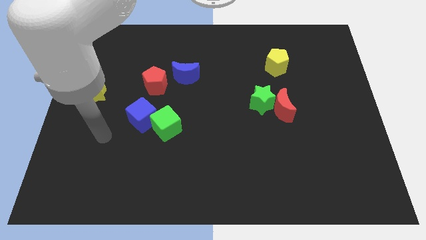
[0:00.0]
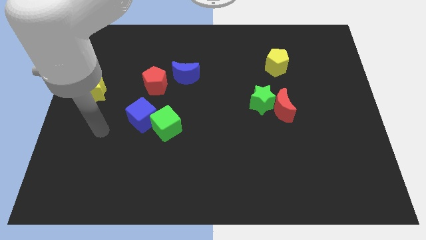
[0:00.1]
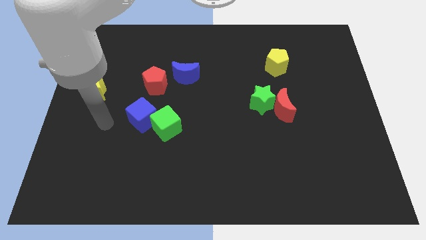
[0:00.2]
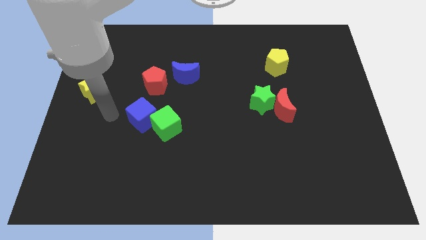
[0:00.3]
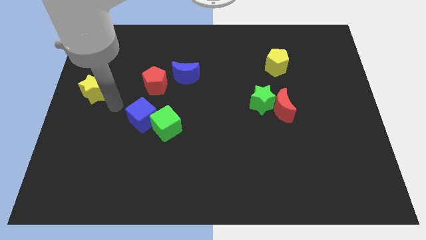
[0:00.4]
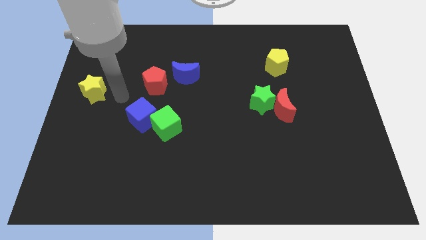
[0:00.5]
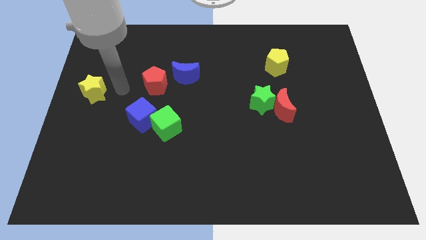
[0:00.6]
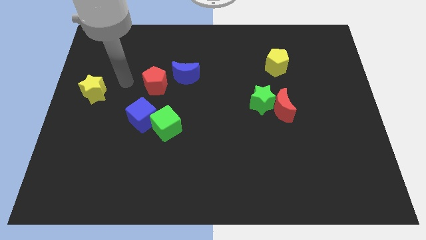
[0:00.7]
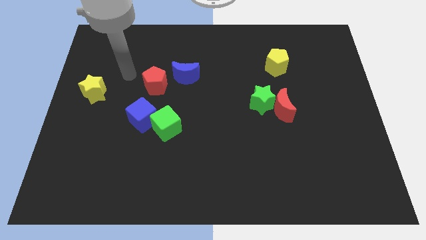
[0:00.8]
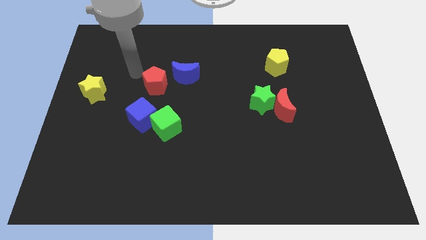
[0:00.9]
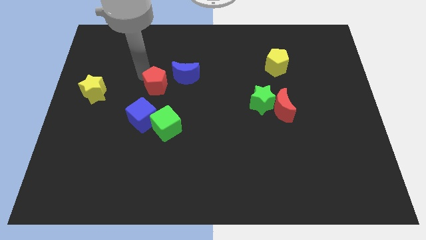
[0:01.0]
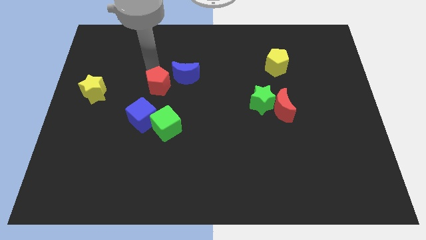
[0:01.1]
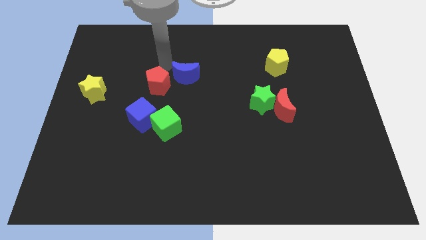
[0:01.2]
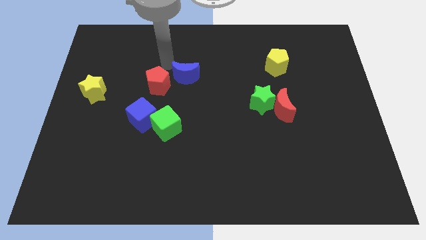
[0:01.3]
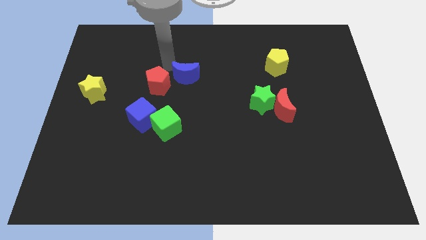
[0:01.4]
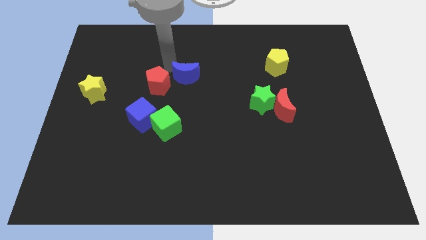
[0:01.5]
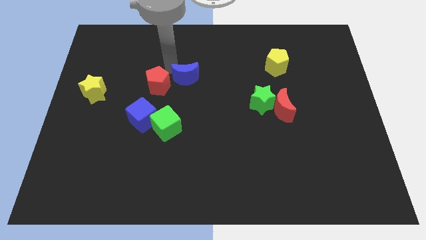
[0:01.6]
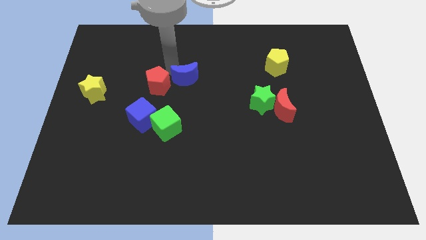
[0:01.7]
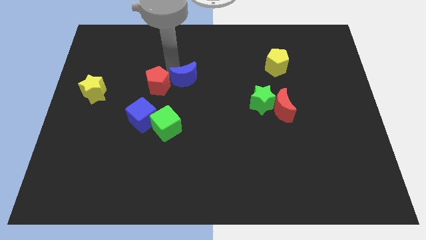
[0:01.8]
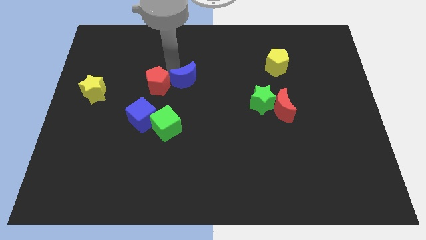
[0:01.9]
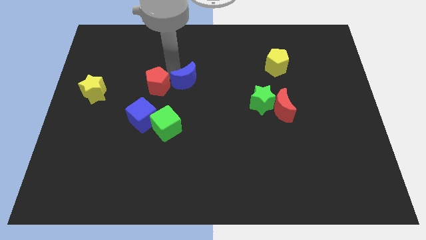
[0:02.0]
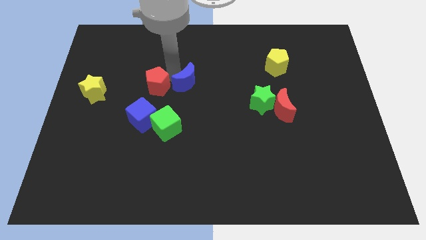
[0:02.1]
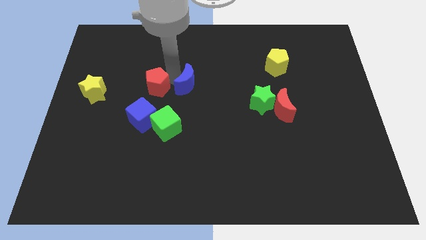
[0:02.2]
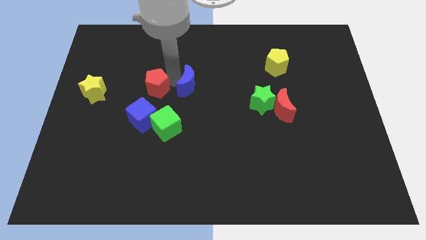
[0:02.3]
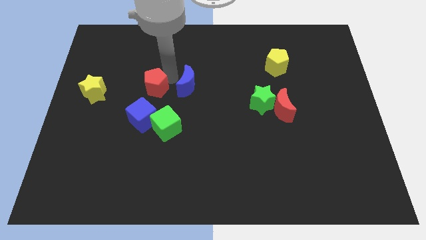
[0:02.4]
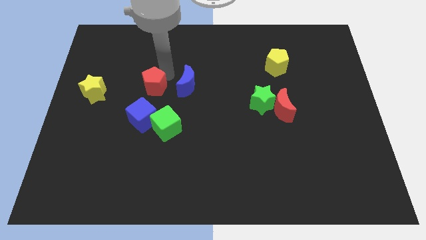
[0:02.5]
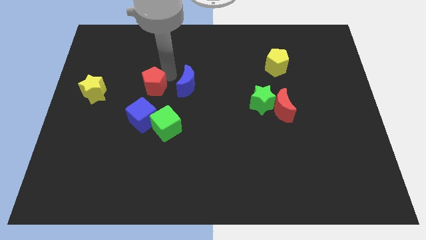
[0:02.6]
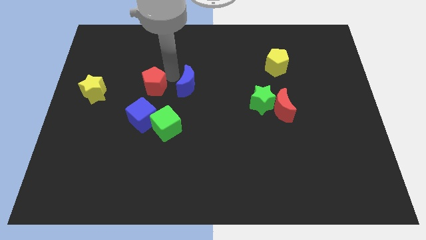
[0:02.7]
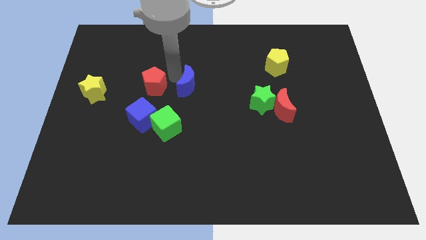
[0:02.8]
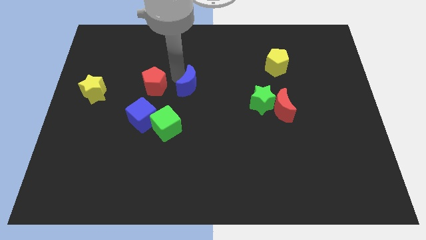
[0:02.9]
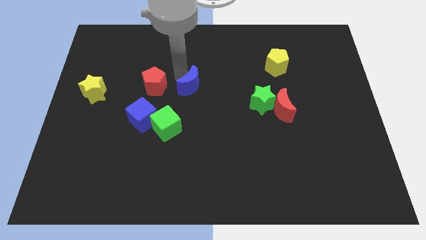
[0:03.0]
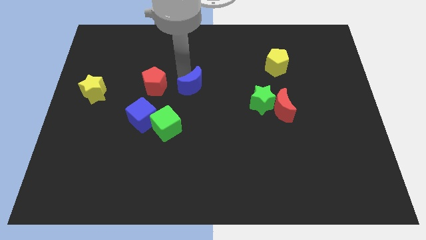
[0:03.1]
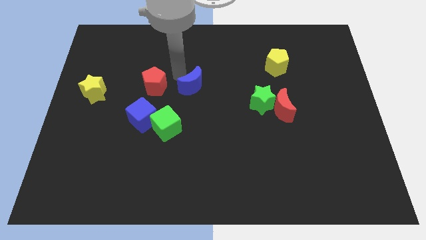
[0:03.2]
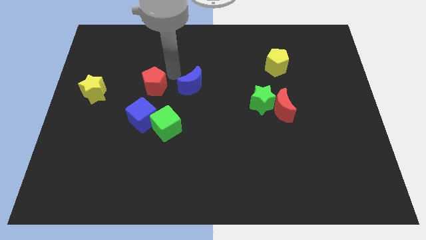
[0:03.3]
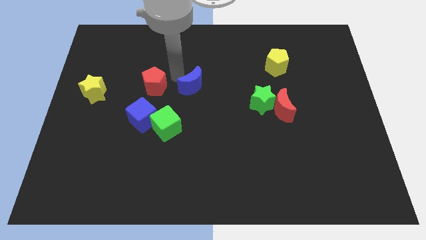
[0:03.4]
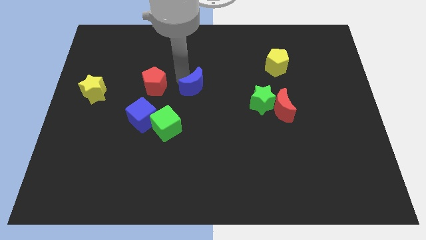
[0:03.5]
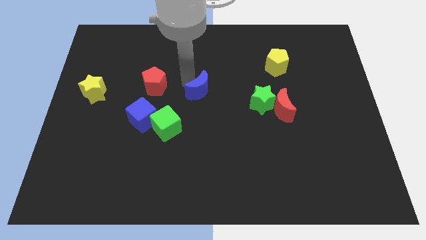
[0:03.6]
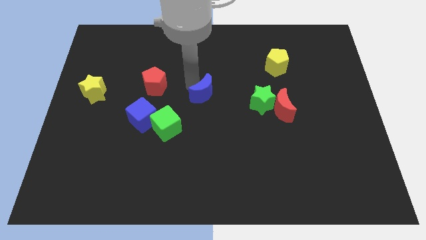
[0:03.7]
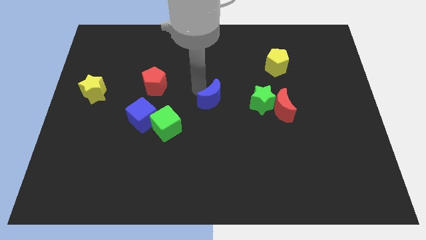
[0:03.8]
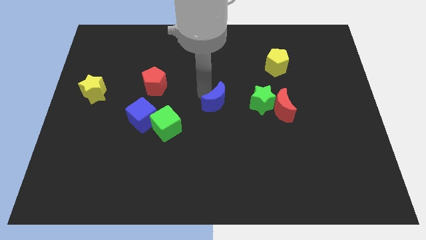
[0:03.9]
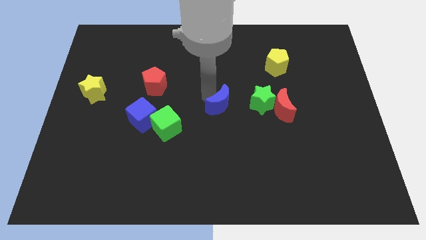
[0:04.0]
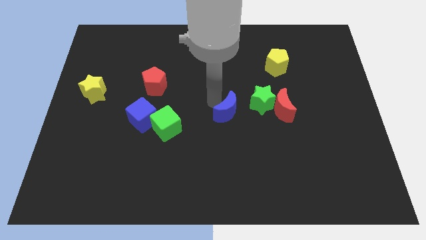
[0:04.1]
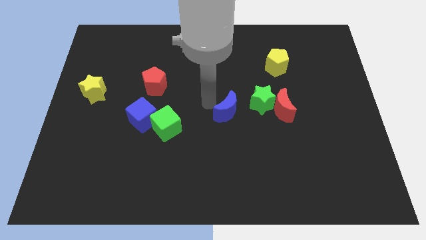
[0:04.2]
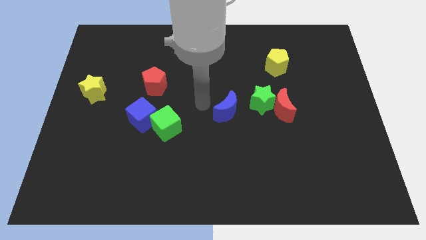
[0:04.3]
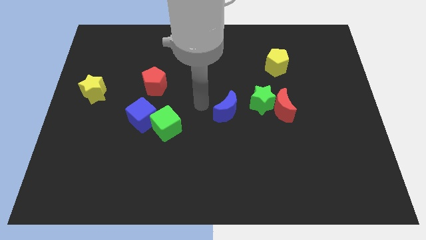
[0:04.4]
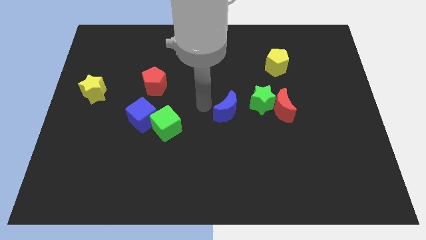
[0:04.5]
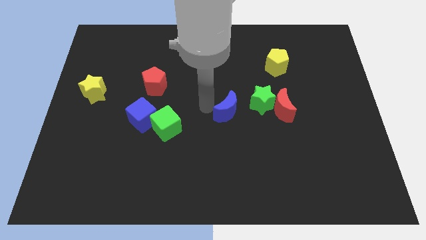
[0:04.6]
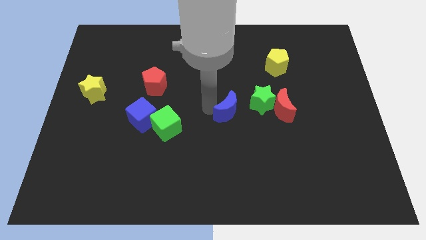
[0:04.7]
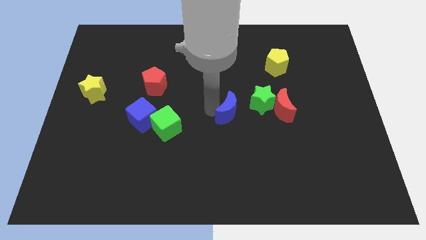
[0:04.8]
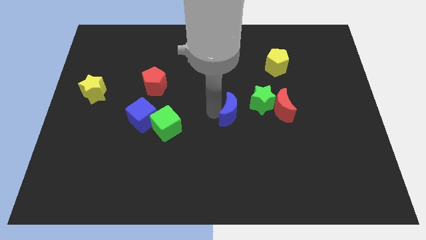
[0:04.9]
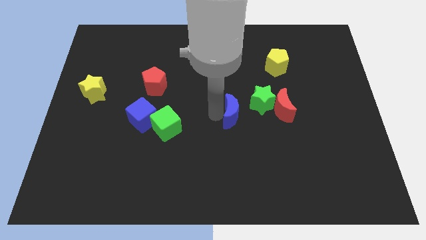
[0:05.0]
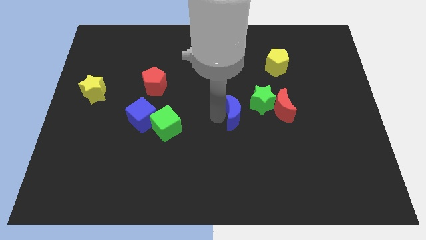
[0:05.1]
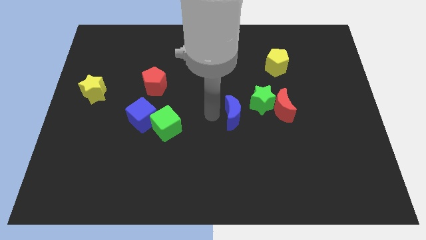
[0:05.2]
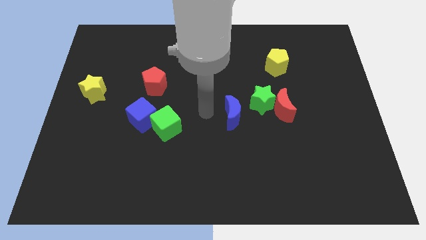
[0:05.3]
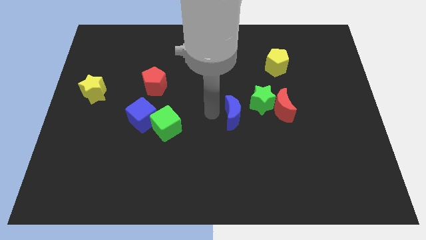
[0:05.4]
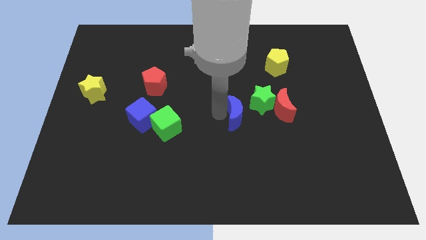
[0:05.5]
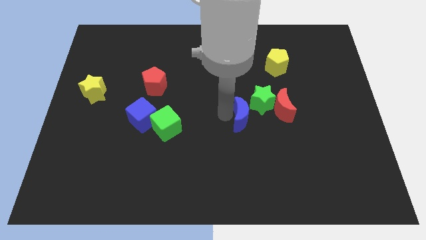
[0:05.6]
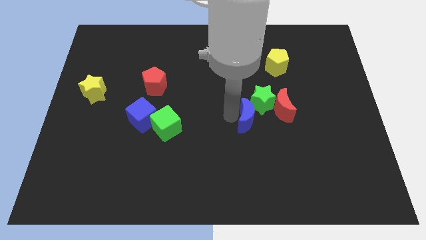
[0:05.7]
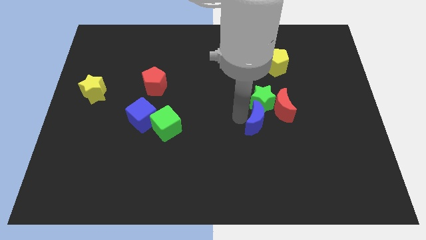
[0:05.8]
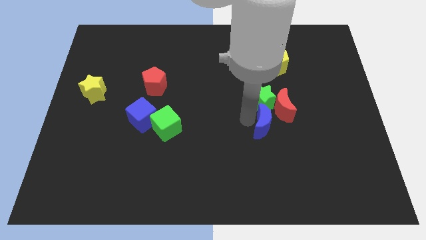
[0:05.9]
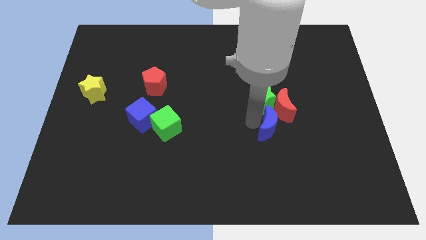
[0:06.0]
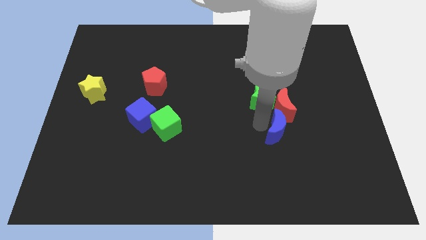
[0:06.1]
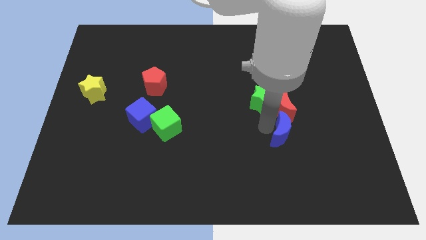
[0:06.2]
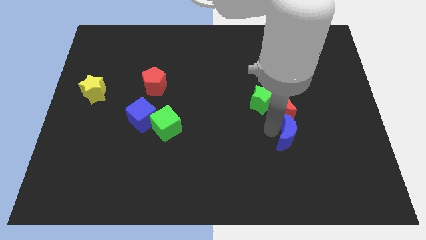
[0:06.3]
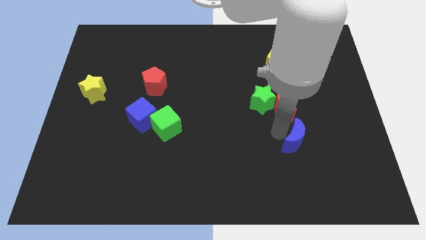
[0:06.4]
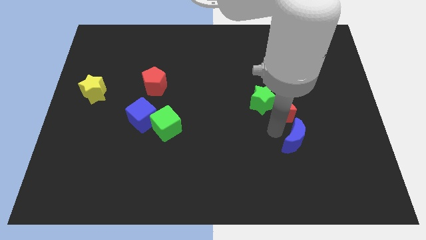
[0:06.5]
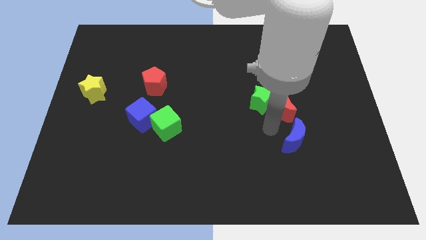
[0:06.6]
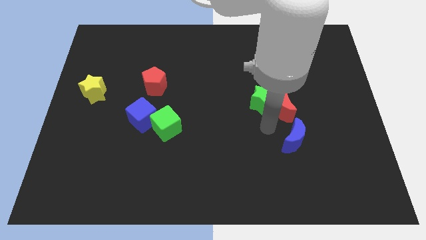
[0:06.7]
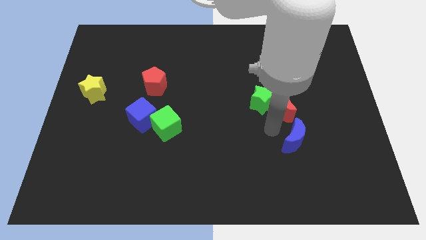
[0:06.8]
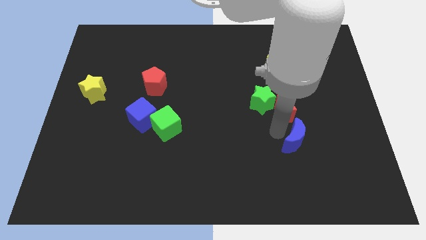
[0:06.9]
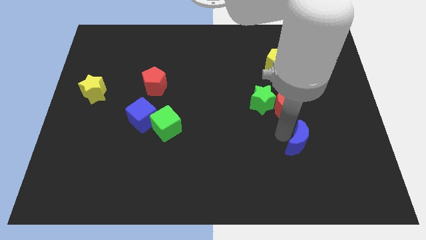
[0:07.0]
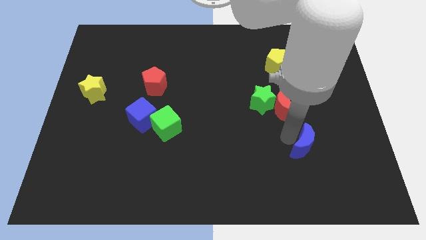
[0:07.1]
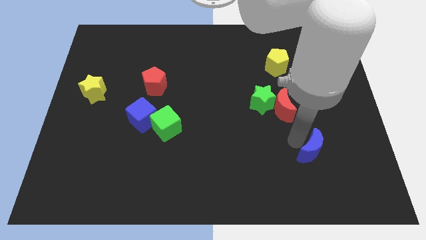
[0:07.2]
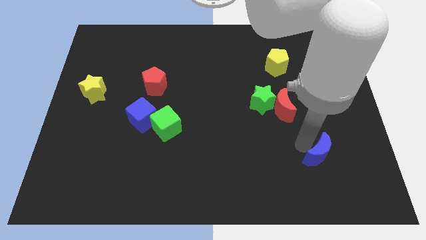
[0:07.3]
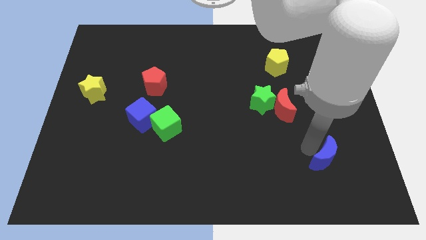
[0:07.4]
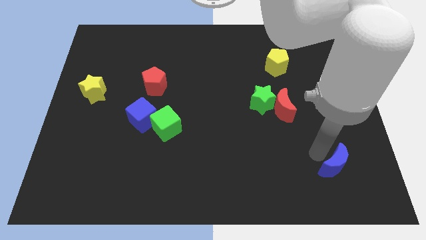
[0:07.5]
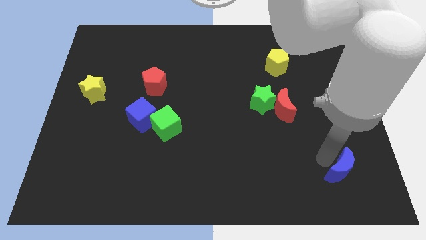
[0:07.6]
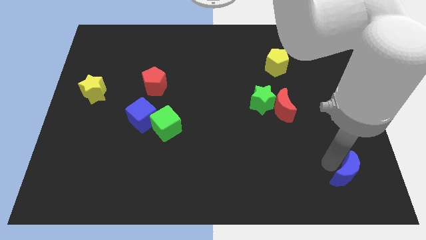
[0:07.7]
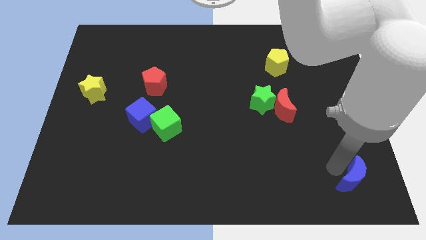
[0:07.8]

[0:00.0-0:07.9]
push the blue moon to the bottom right of the board
